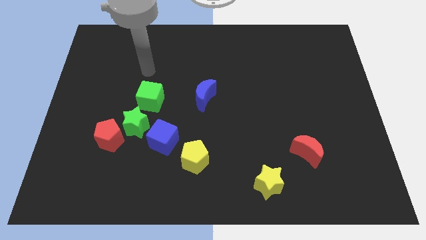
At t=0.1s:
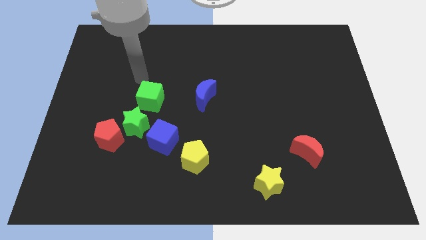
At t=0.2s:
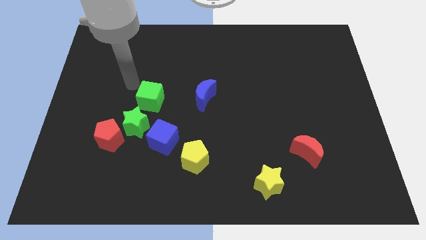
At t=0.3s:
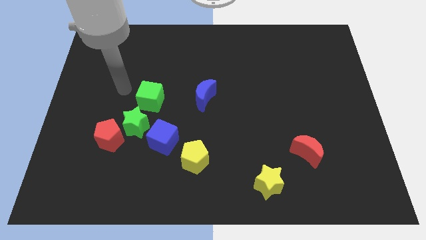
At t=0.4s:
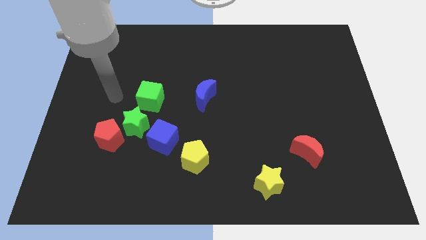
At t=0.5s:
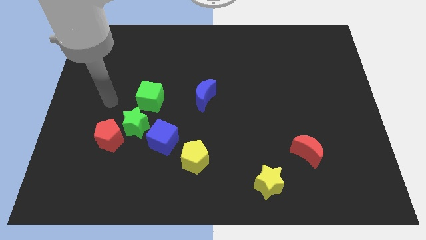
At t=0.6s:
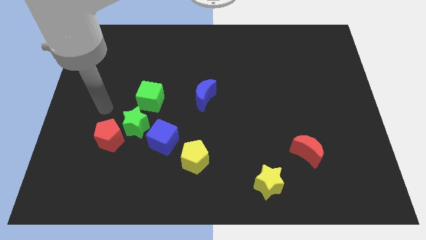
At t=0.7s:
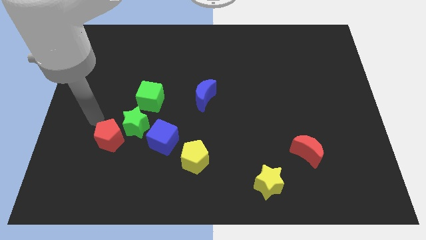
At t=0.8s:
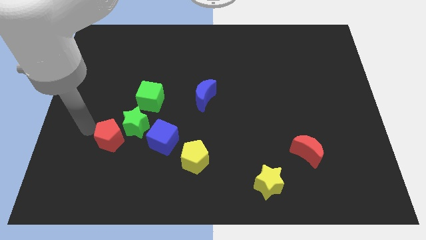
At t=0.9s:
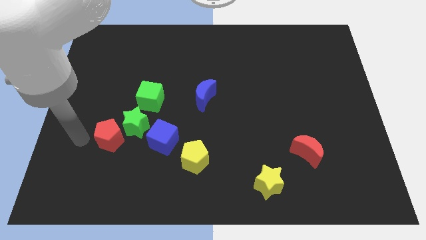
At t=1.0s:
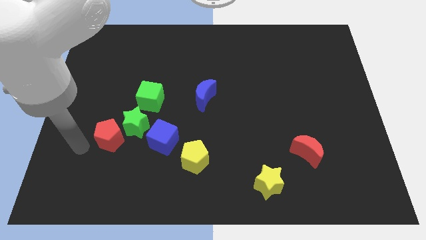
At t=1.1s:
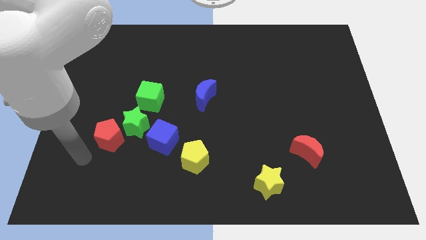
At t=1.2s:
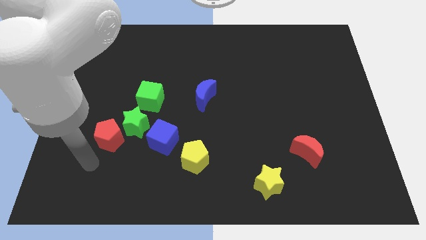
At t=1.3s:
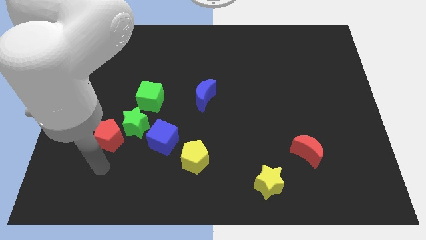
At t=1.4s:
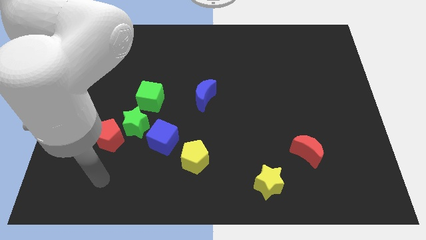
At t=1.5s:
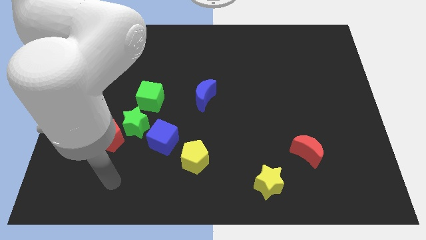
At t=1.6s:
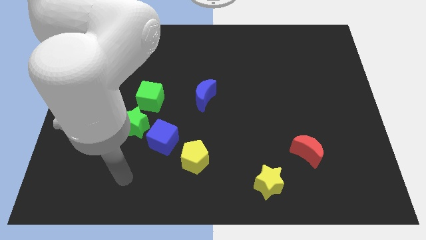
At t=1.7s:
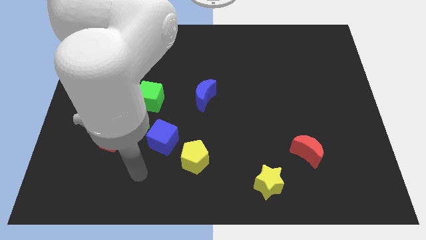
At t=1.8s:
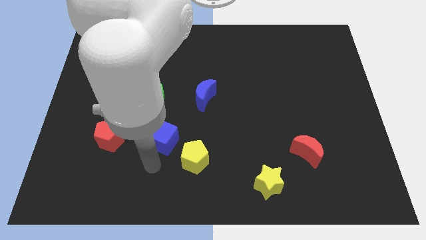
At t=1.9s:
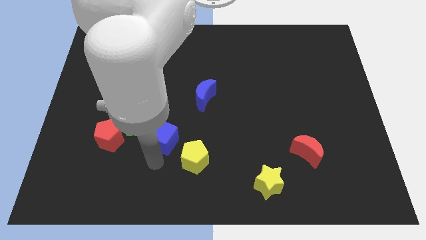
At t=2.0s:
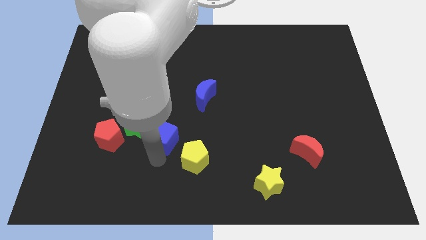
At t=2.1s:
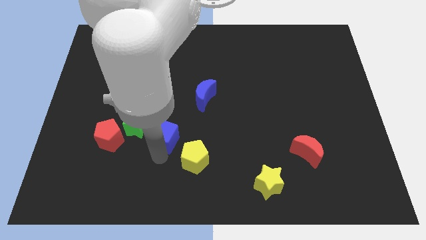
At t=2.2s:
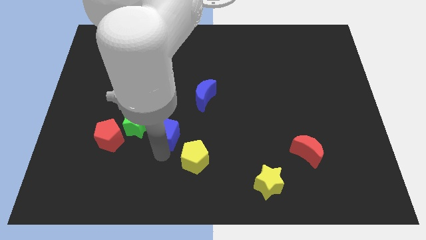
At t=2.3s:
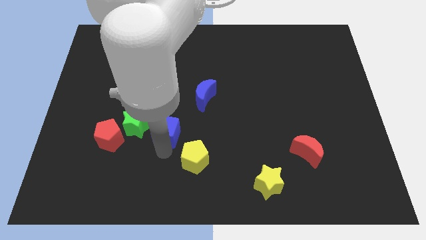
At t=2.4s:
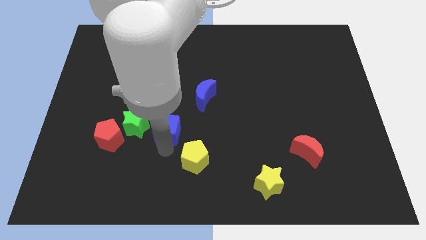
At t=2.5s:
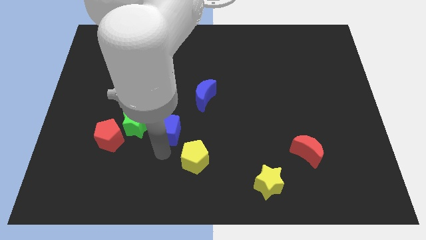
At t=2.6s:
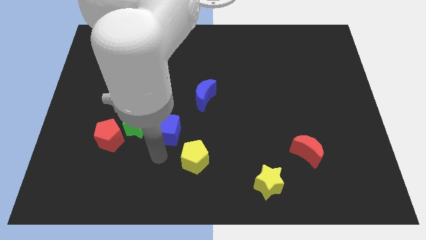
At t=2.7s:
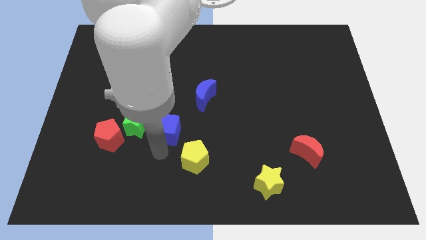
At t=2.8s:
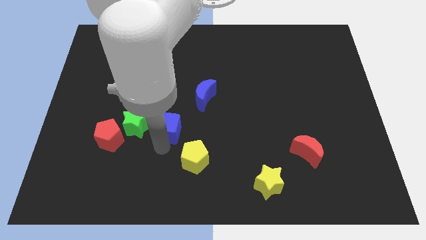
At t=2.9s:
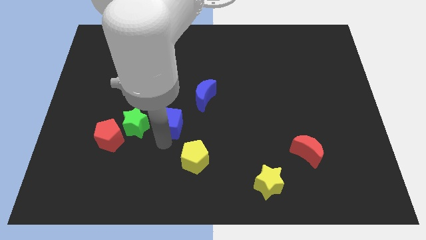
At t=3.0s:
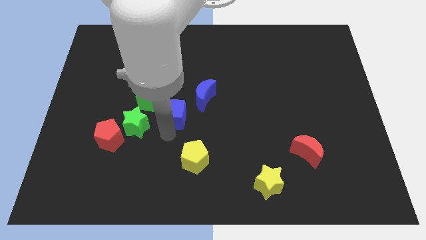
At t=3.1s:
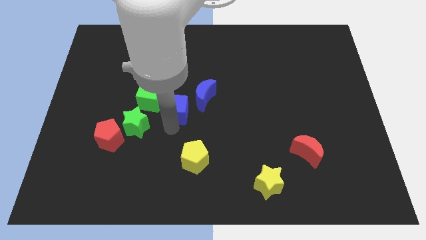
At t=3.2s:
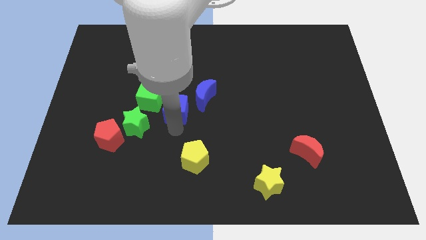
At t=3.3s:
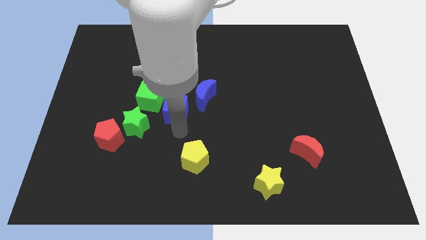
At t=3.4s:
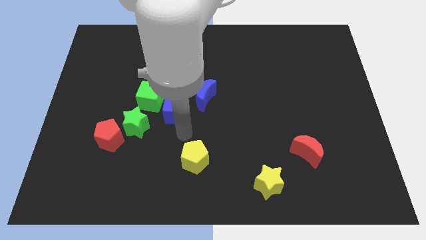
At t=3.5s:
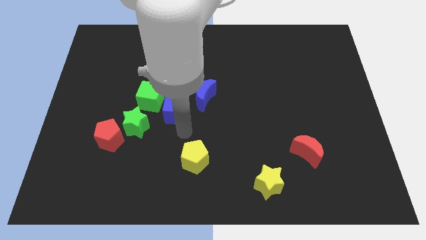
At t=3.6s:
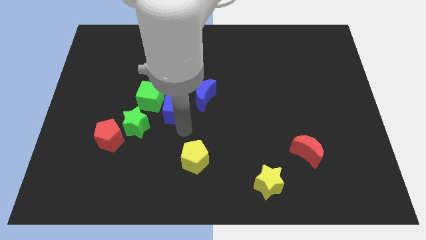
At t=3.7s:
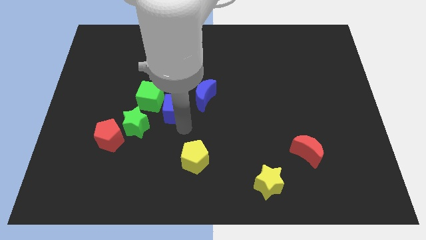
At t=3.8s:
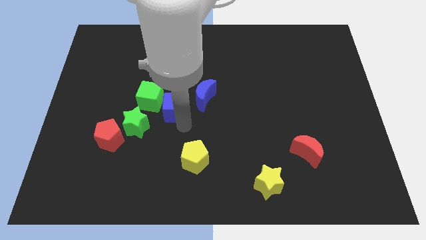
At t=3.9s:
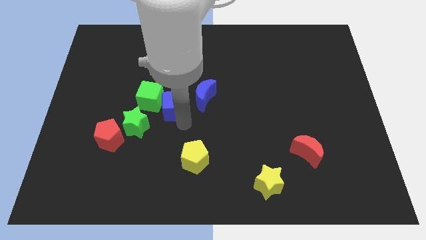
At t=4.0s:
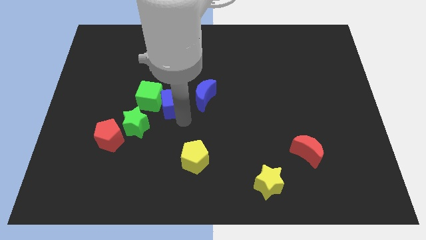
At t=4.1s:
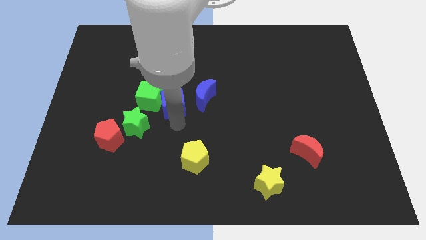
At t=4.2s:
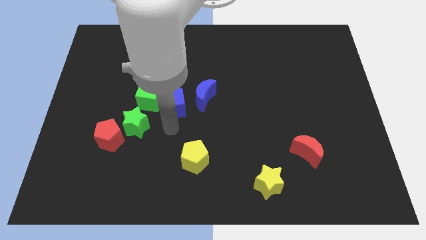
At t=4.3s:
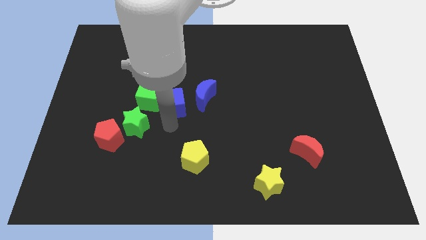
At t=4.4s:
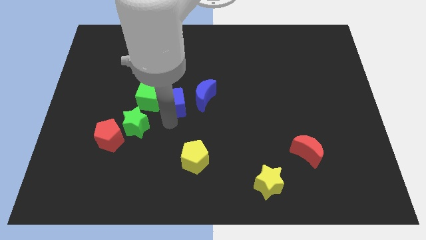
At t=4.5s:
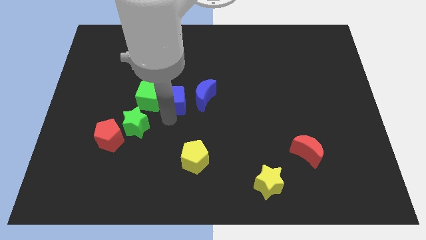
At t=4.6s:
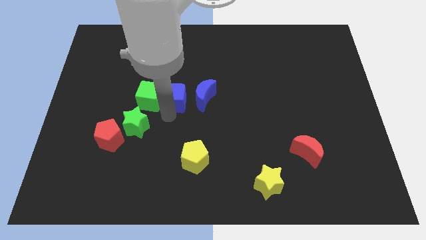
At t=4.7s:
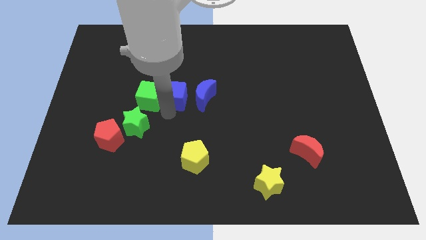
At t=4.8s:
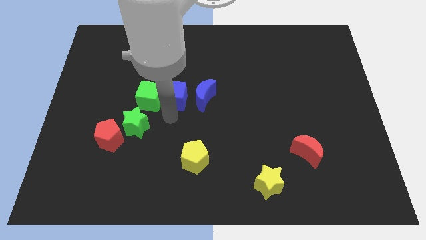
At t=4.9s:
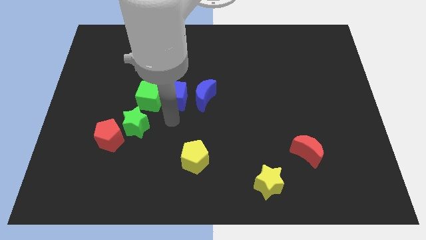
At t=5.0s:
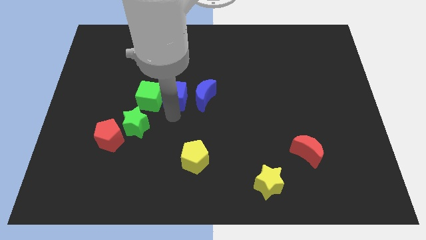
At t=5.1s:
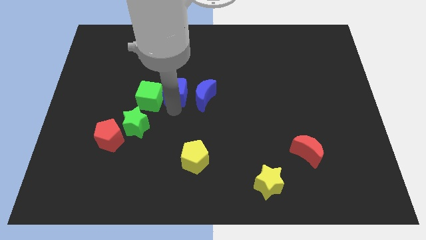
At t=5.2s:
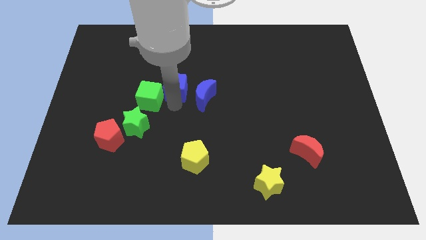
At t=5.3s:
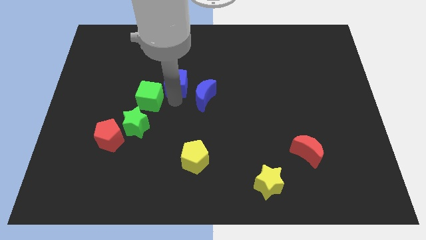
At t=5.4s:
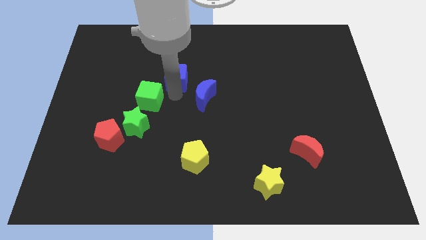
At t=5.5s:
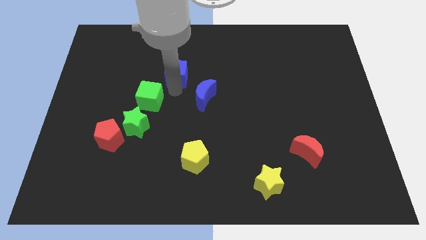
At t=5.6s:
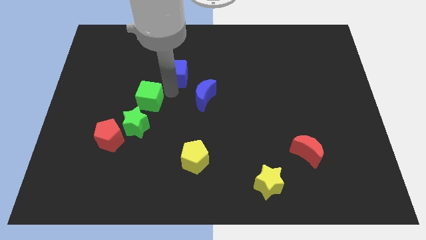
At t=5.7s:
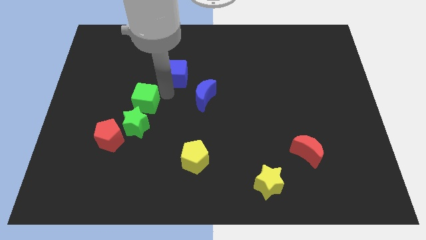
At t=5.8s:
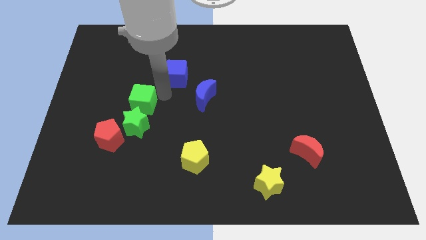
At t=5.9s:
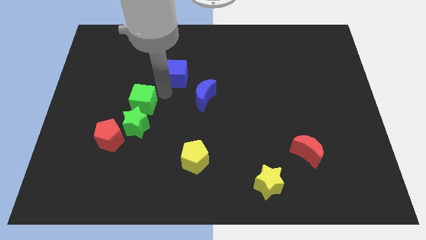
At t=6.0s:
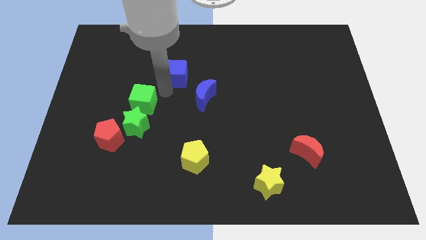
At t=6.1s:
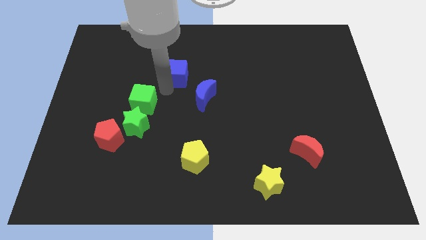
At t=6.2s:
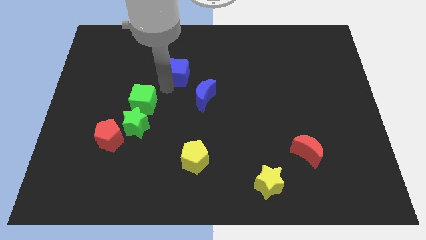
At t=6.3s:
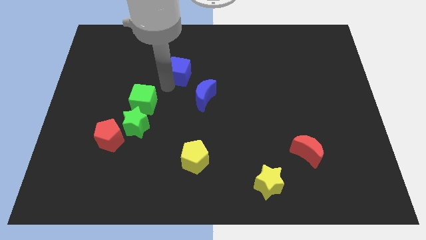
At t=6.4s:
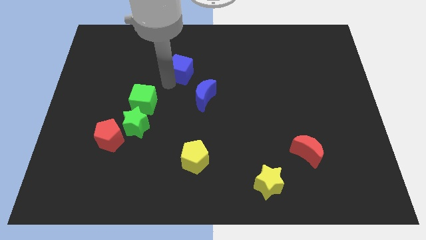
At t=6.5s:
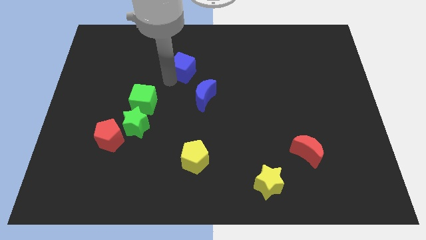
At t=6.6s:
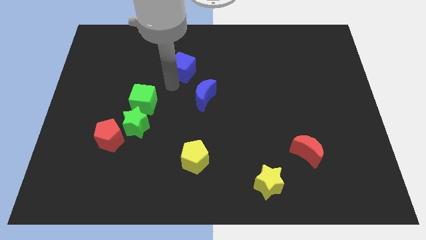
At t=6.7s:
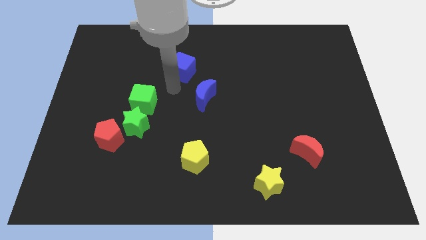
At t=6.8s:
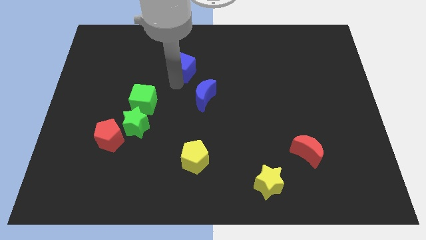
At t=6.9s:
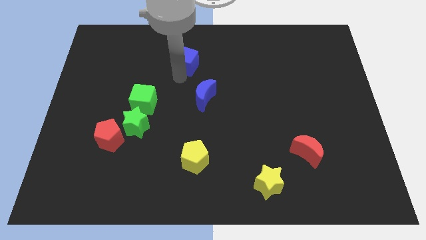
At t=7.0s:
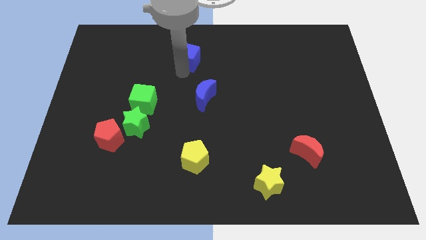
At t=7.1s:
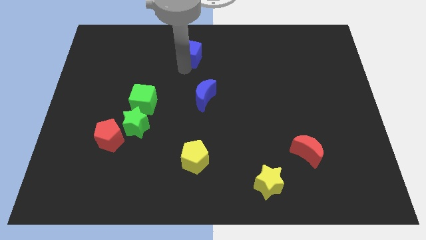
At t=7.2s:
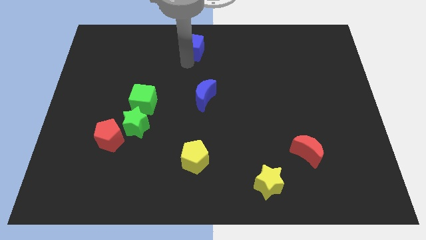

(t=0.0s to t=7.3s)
move the blue cube to the top side
